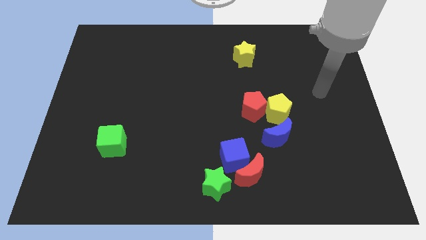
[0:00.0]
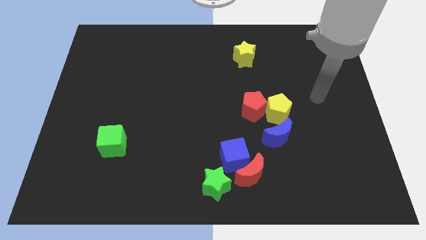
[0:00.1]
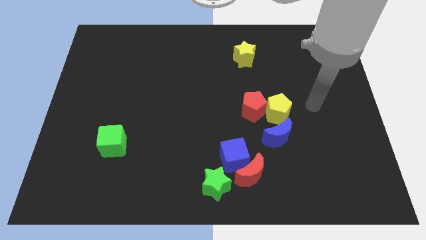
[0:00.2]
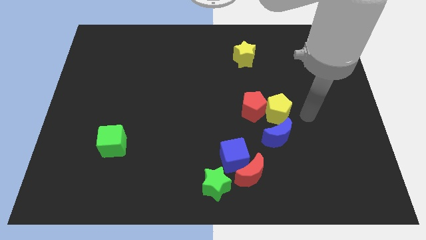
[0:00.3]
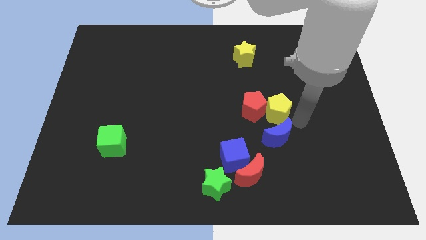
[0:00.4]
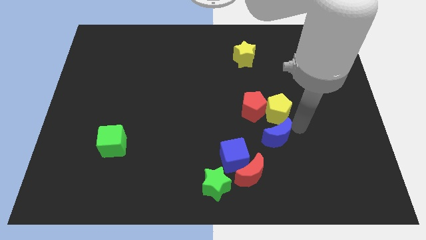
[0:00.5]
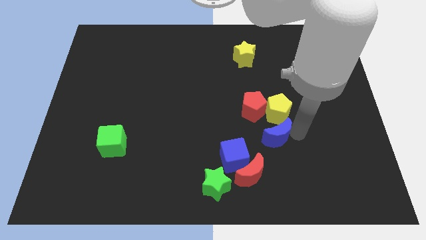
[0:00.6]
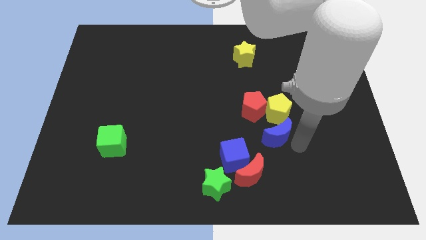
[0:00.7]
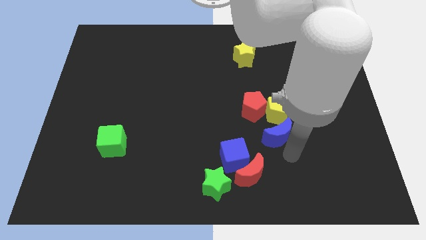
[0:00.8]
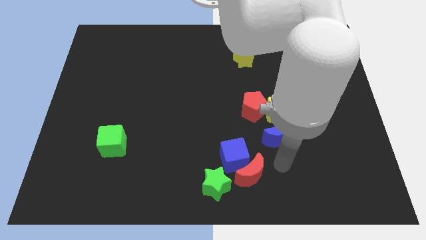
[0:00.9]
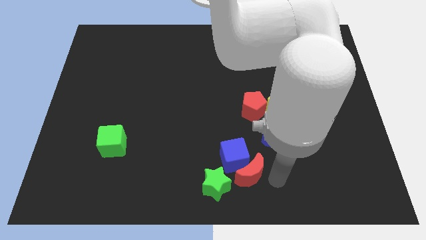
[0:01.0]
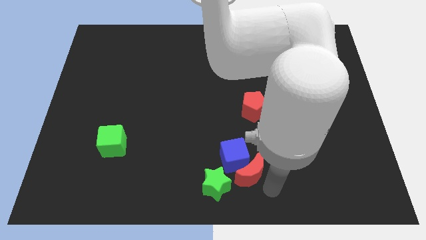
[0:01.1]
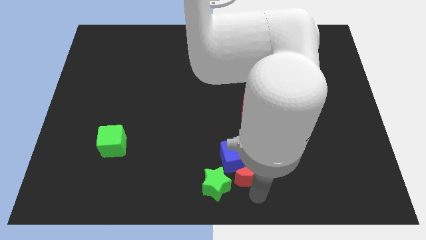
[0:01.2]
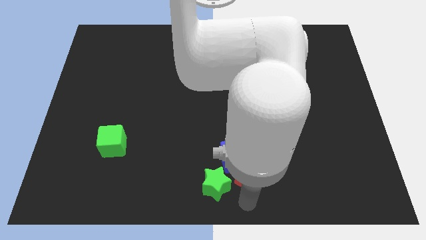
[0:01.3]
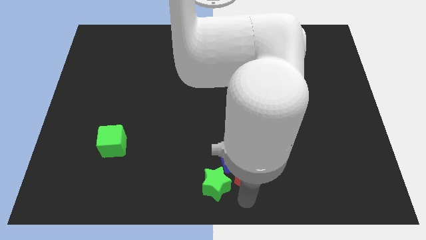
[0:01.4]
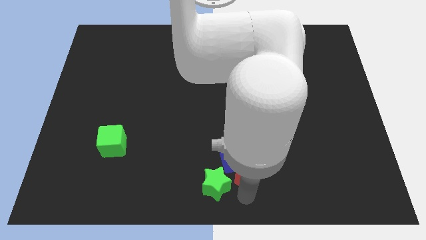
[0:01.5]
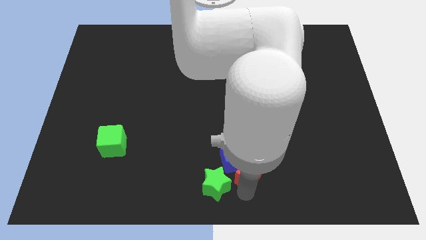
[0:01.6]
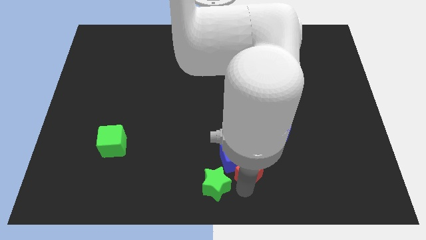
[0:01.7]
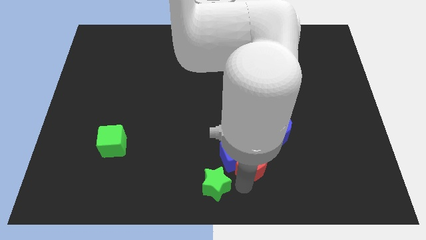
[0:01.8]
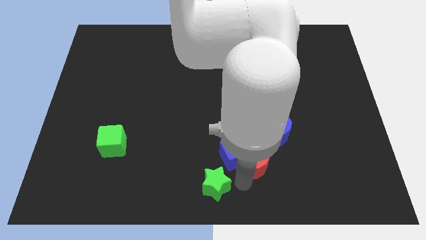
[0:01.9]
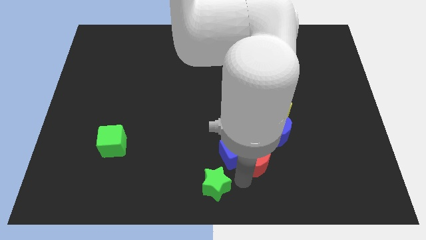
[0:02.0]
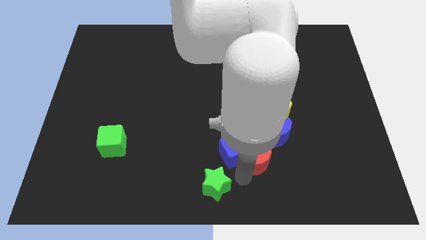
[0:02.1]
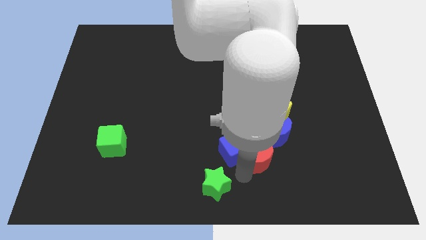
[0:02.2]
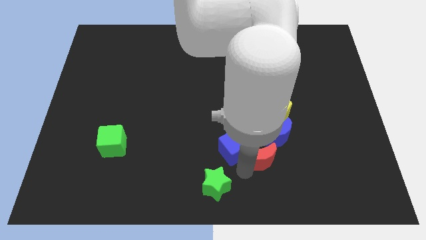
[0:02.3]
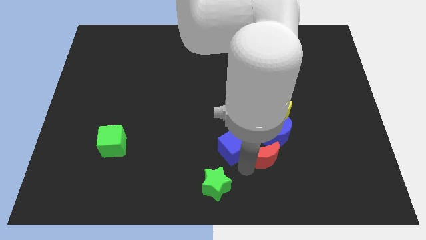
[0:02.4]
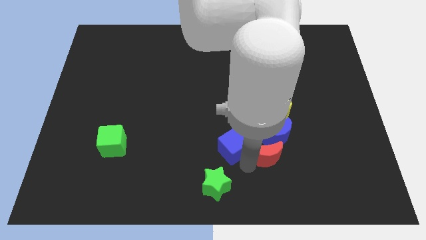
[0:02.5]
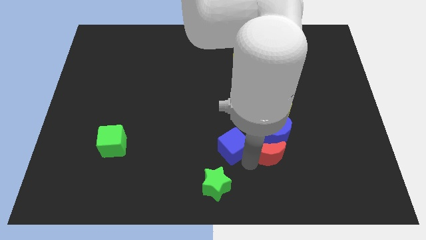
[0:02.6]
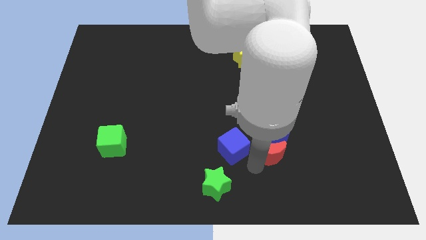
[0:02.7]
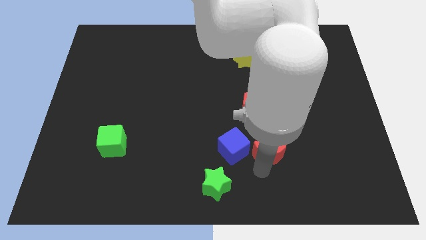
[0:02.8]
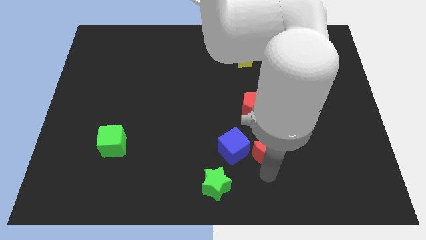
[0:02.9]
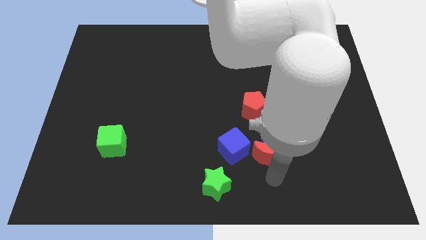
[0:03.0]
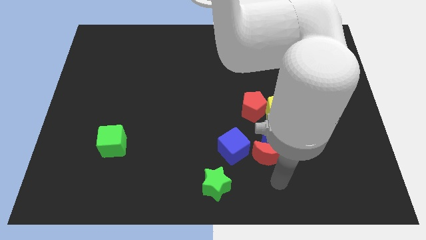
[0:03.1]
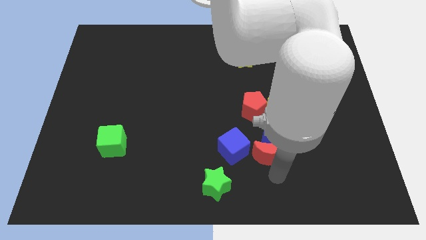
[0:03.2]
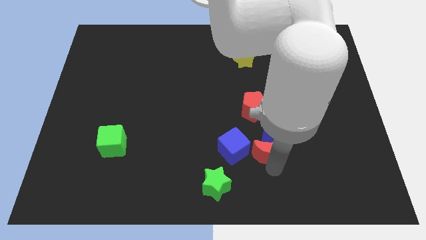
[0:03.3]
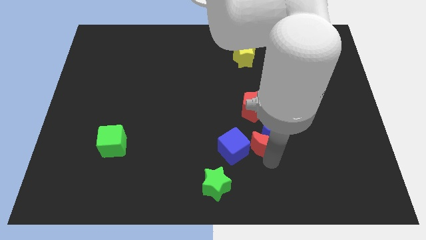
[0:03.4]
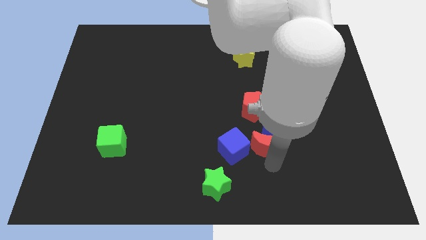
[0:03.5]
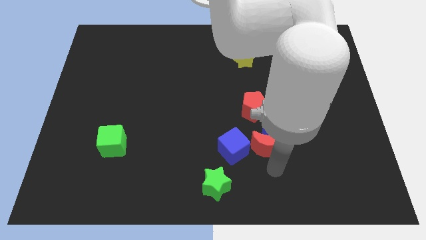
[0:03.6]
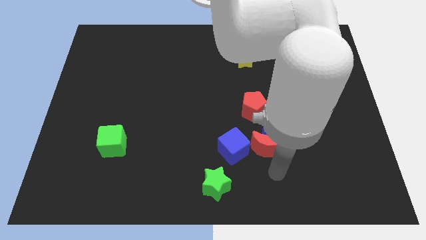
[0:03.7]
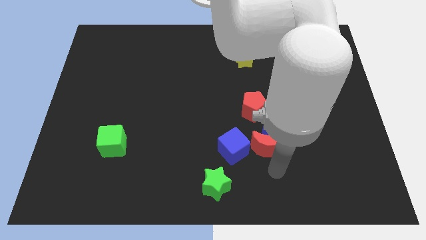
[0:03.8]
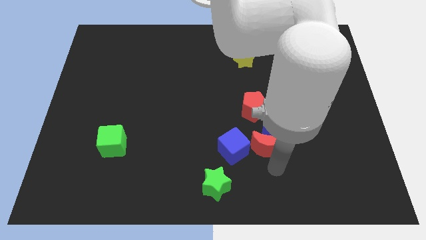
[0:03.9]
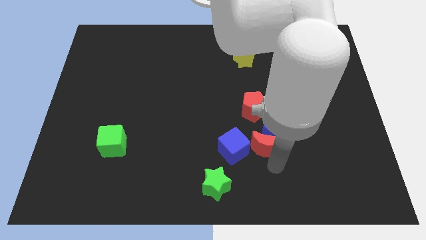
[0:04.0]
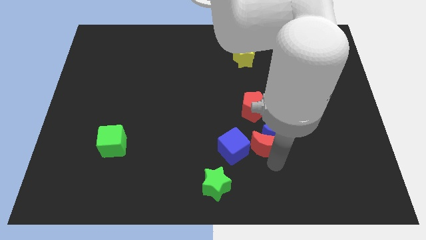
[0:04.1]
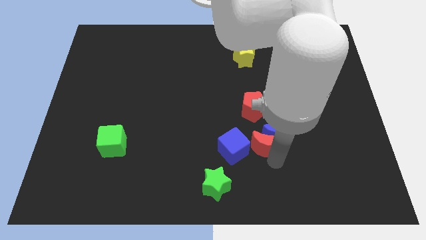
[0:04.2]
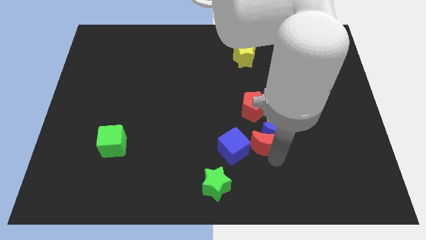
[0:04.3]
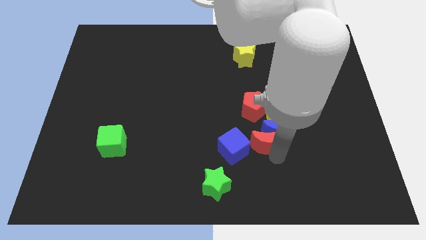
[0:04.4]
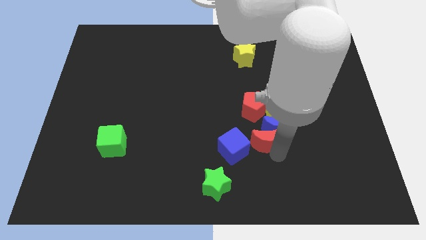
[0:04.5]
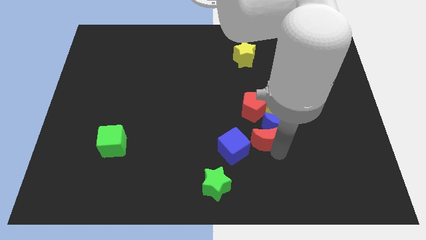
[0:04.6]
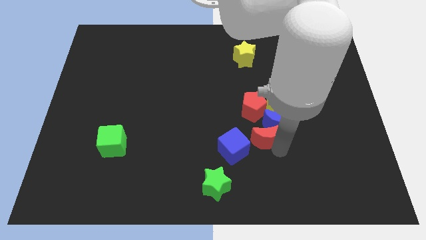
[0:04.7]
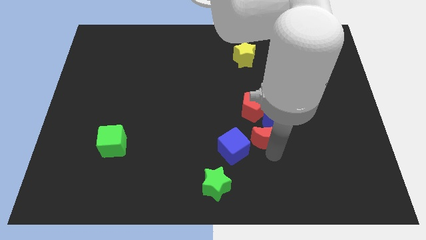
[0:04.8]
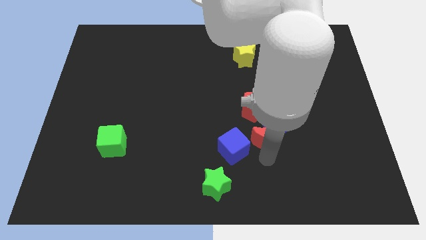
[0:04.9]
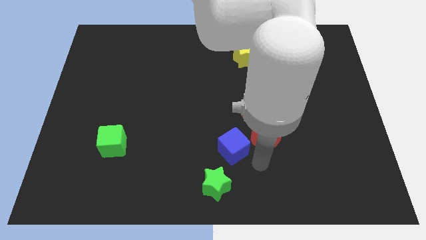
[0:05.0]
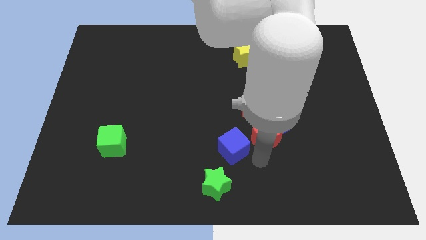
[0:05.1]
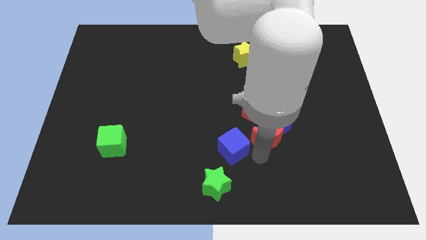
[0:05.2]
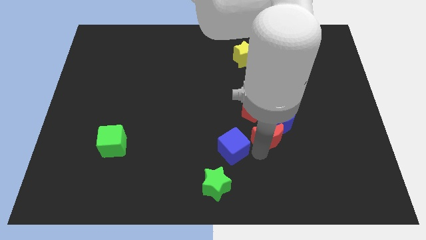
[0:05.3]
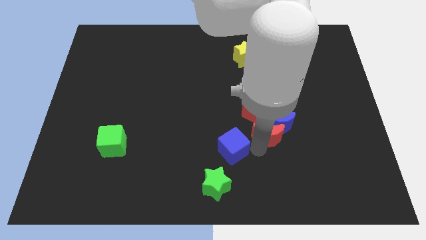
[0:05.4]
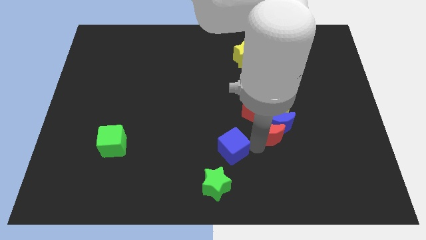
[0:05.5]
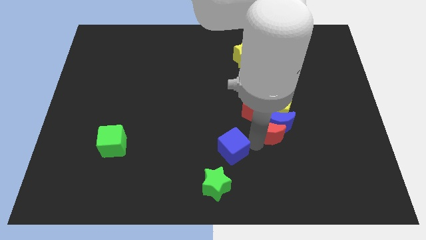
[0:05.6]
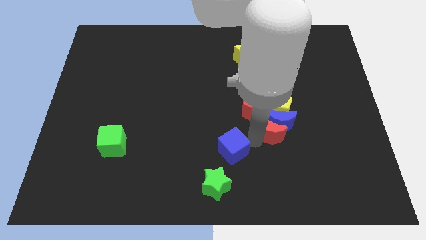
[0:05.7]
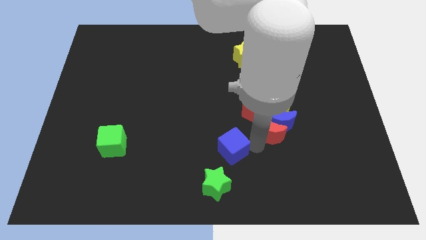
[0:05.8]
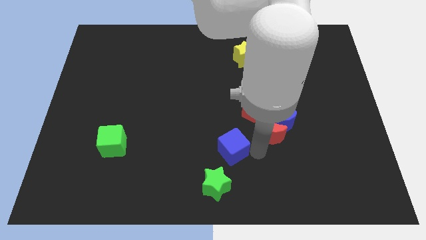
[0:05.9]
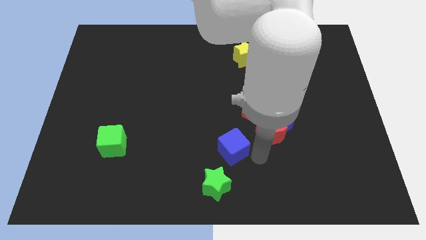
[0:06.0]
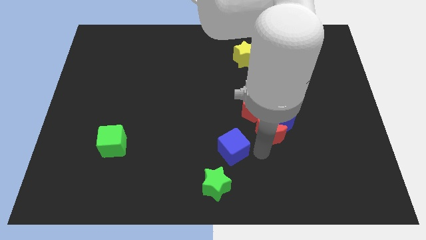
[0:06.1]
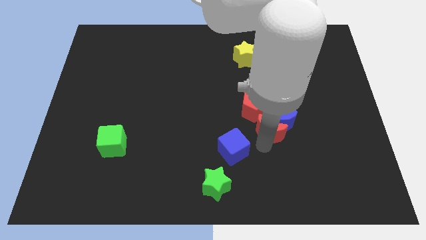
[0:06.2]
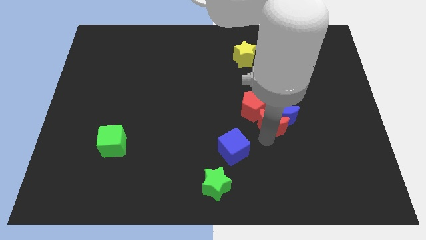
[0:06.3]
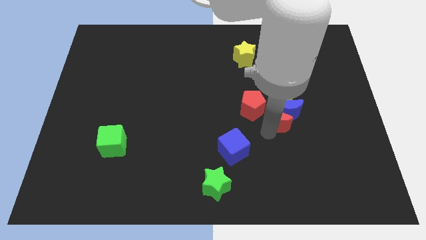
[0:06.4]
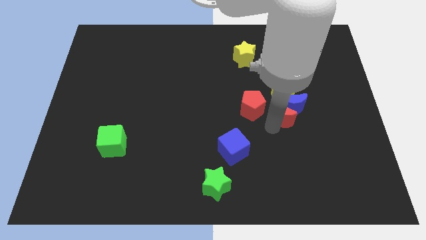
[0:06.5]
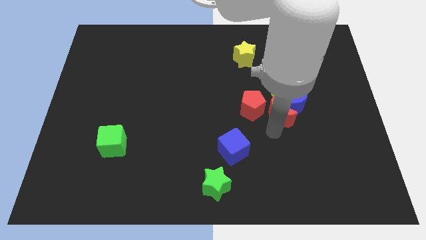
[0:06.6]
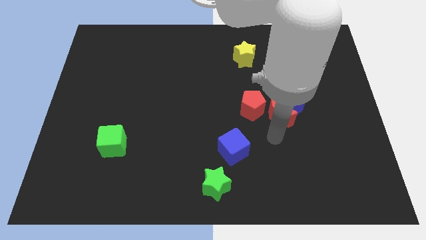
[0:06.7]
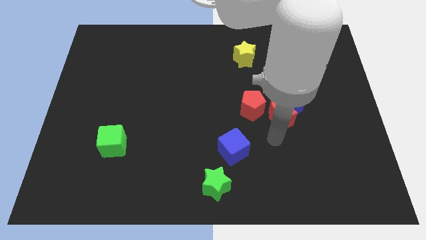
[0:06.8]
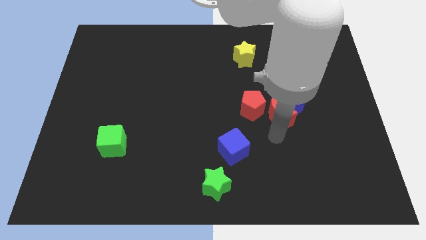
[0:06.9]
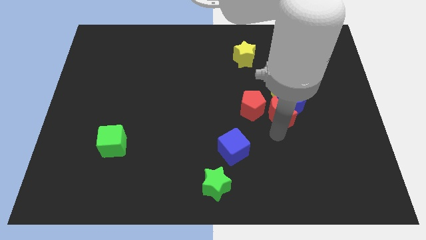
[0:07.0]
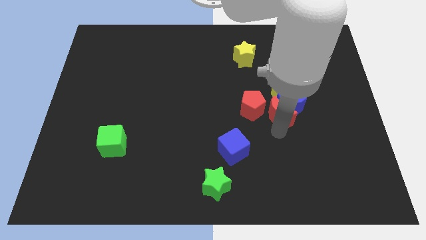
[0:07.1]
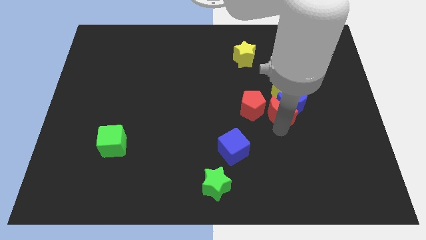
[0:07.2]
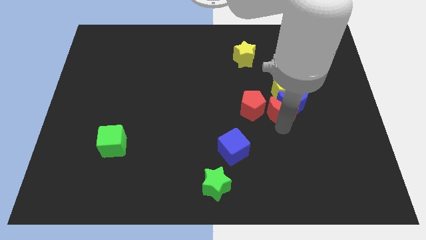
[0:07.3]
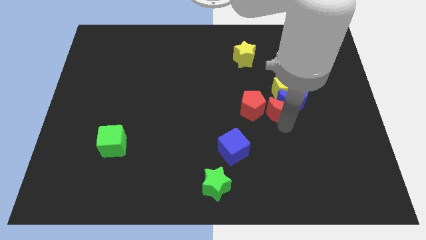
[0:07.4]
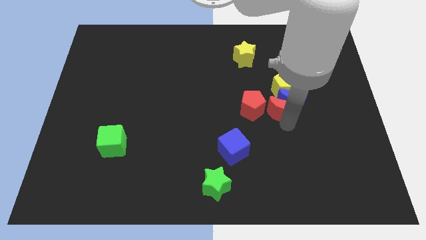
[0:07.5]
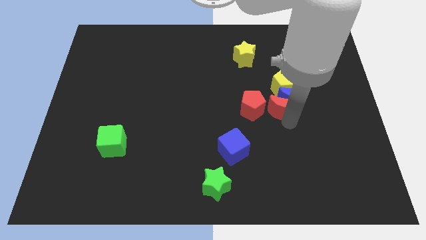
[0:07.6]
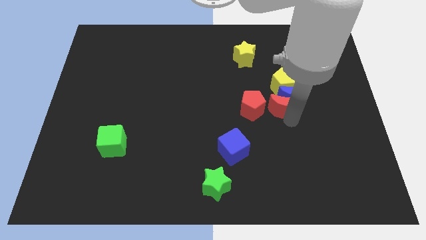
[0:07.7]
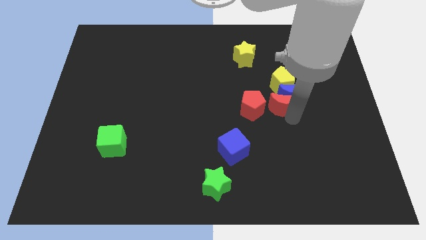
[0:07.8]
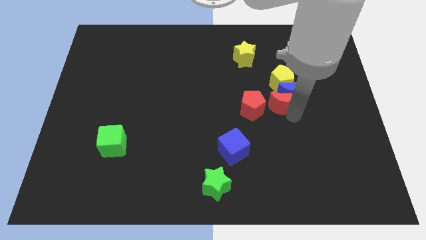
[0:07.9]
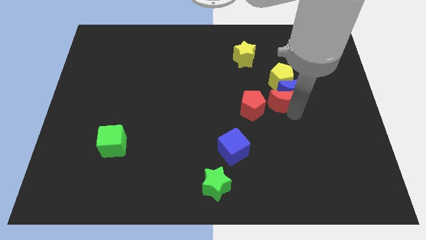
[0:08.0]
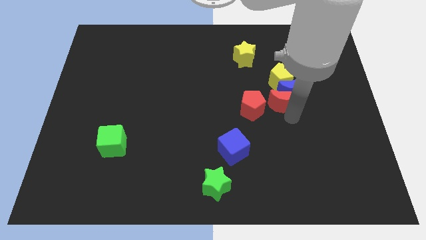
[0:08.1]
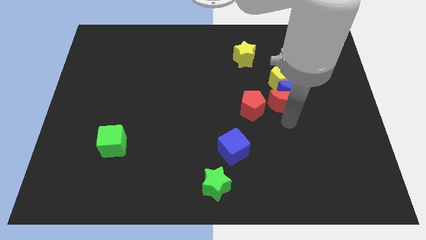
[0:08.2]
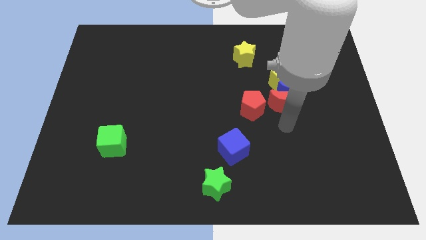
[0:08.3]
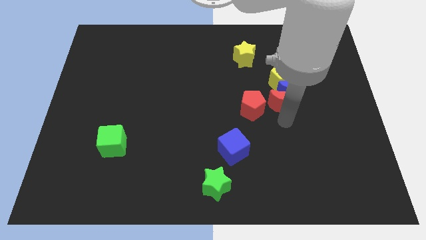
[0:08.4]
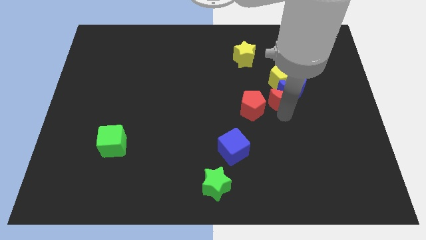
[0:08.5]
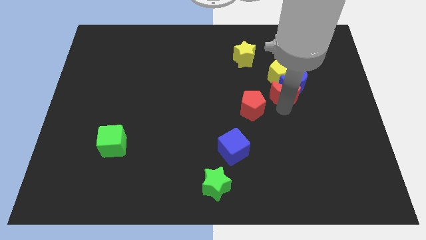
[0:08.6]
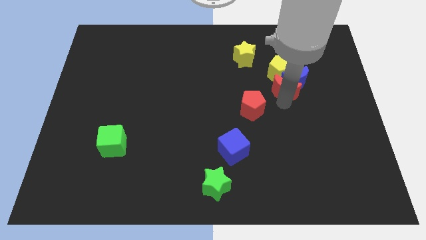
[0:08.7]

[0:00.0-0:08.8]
slide the red moon to the yellow pentagon
